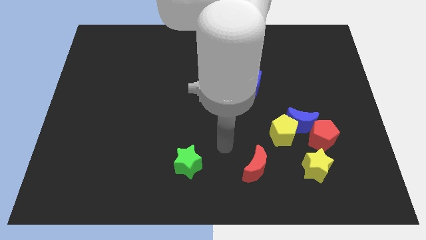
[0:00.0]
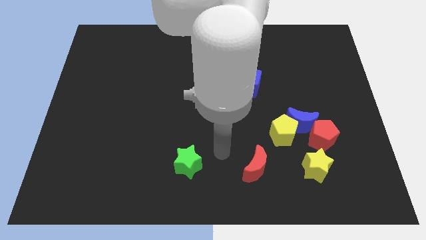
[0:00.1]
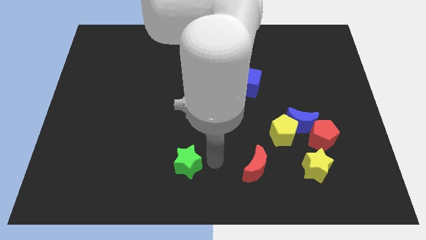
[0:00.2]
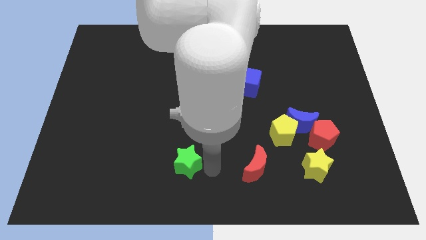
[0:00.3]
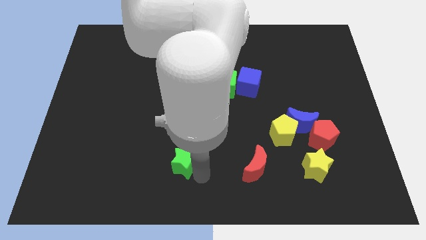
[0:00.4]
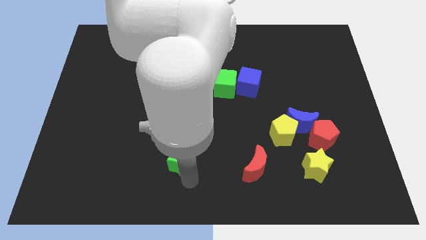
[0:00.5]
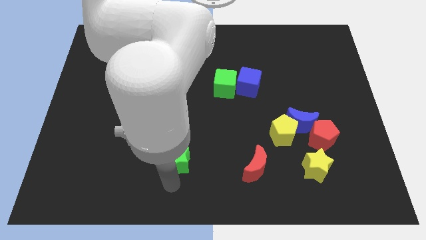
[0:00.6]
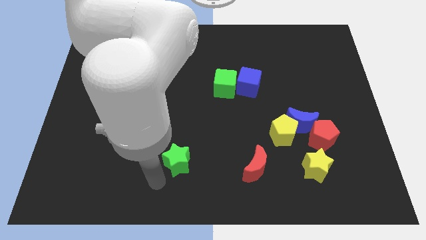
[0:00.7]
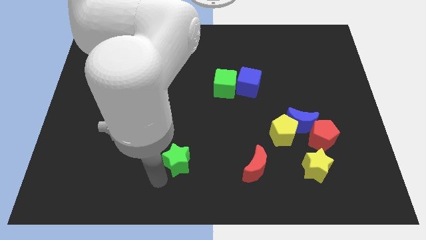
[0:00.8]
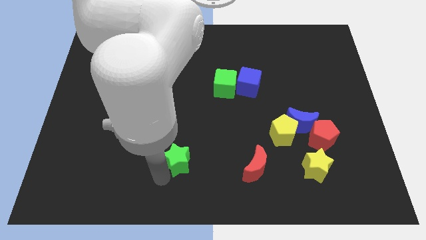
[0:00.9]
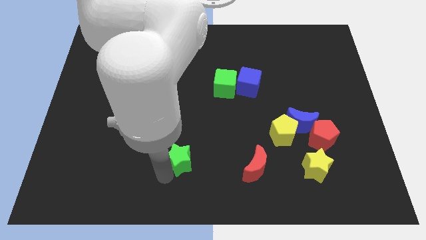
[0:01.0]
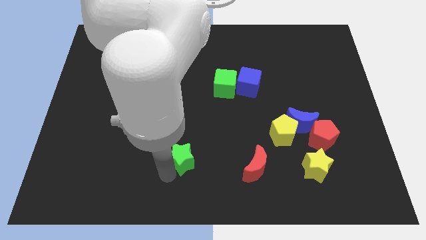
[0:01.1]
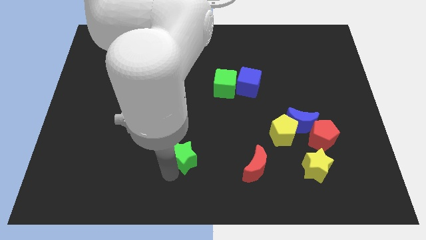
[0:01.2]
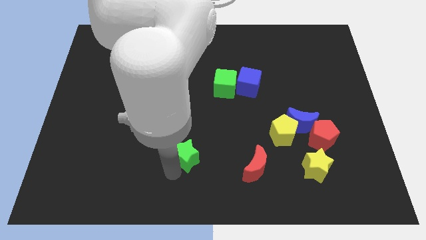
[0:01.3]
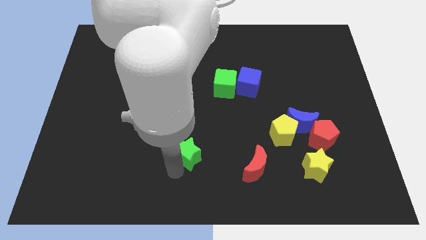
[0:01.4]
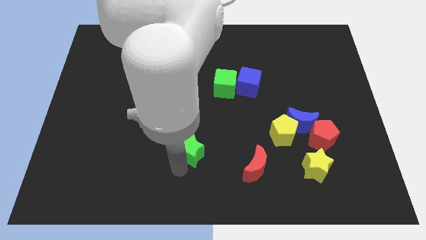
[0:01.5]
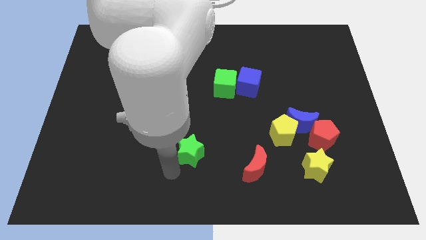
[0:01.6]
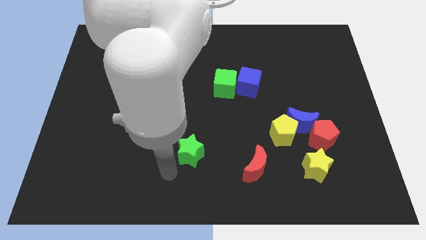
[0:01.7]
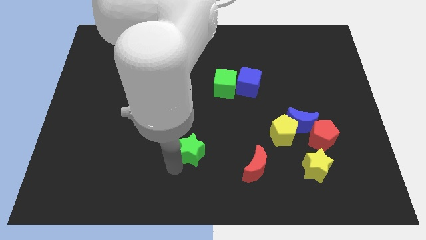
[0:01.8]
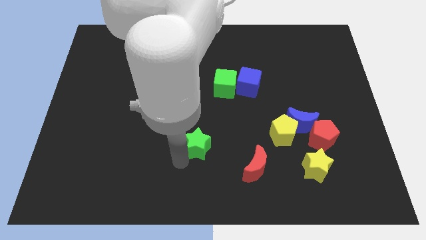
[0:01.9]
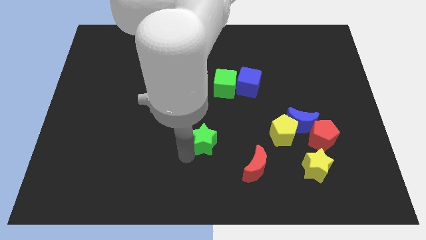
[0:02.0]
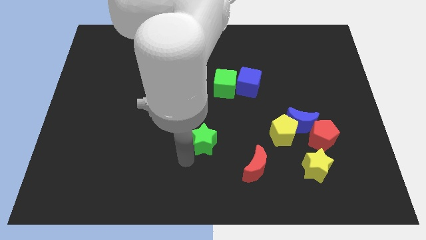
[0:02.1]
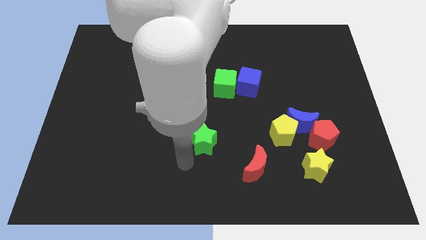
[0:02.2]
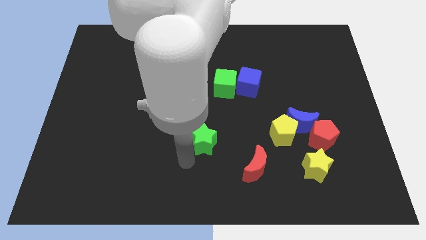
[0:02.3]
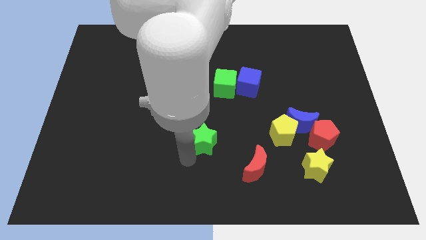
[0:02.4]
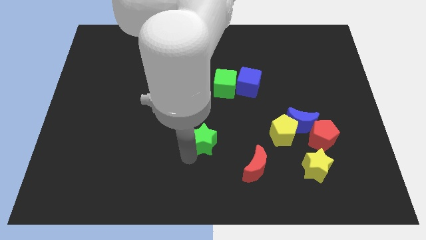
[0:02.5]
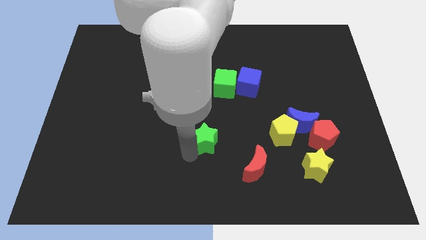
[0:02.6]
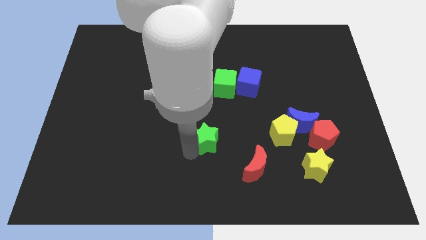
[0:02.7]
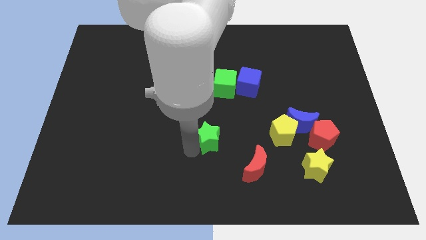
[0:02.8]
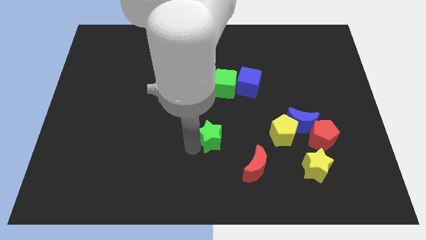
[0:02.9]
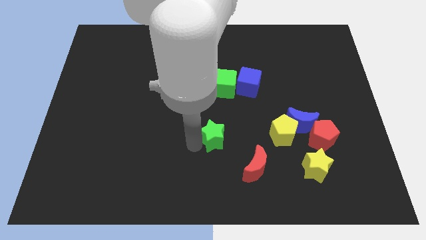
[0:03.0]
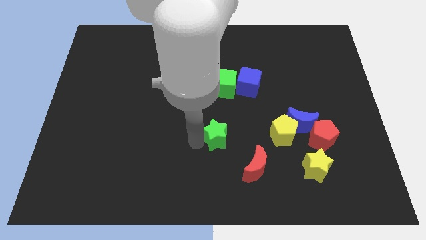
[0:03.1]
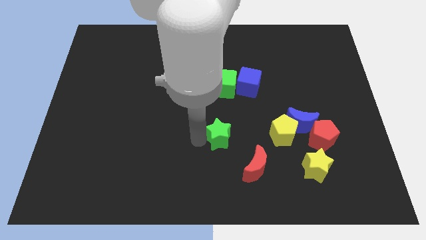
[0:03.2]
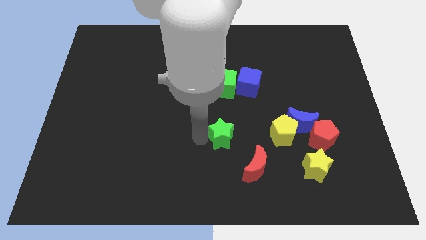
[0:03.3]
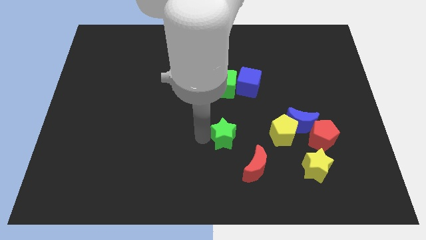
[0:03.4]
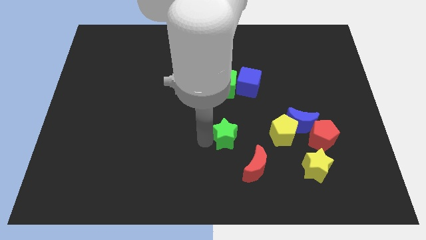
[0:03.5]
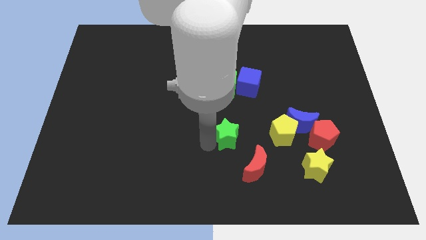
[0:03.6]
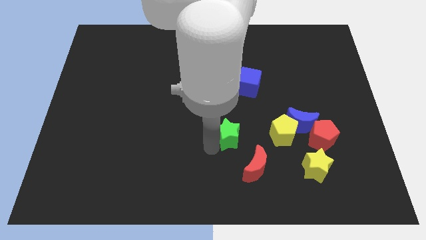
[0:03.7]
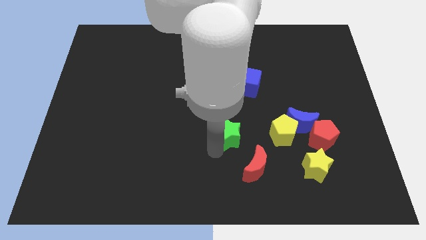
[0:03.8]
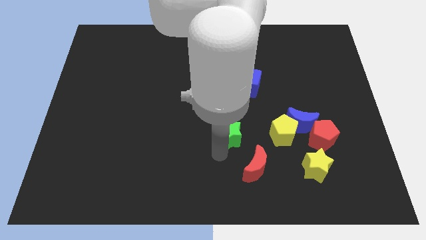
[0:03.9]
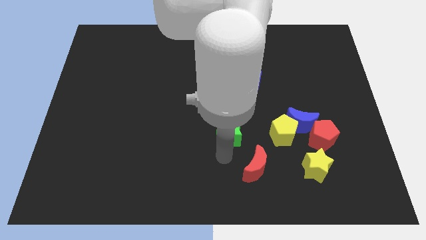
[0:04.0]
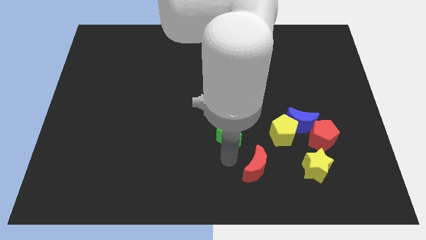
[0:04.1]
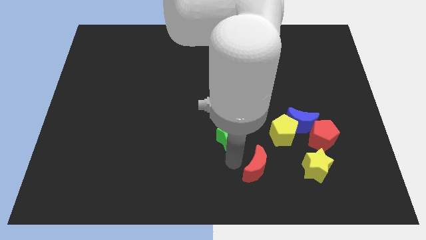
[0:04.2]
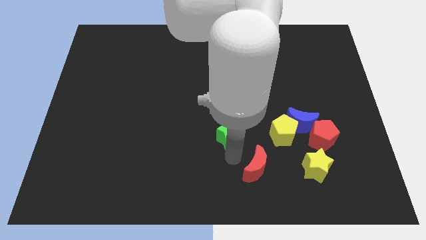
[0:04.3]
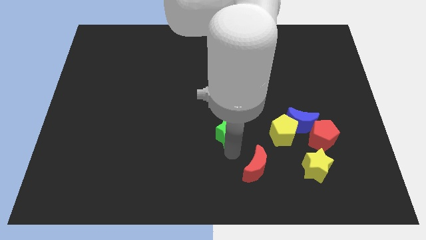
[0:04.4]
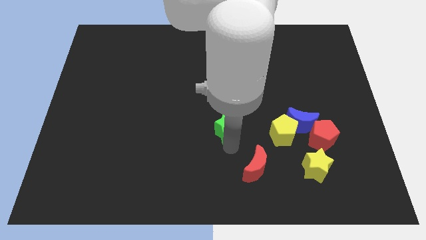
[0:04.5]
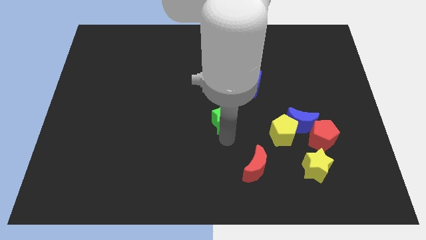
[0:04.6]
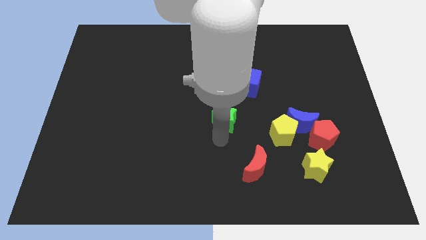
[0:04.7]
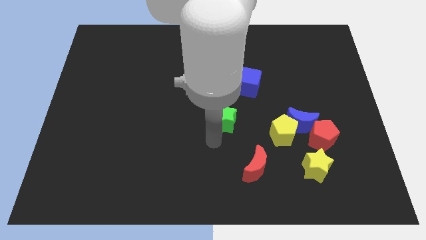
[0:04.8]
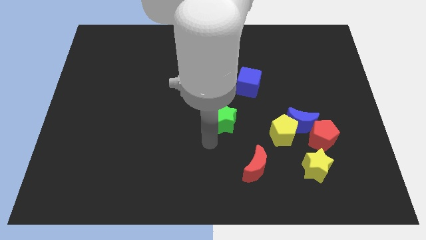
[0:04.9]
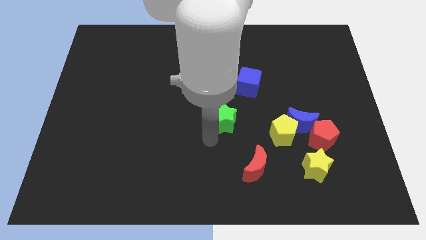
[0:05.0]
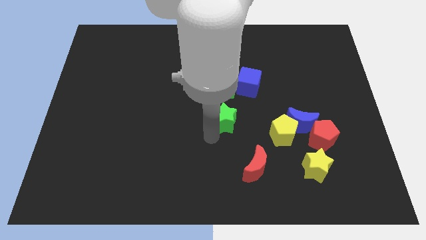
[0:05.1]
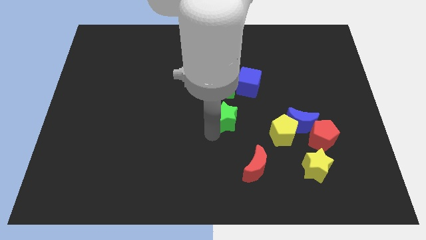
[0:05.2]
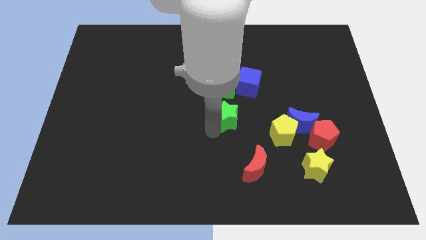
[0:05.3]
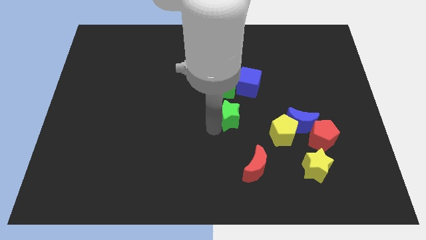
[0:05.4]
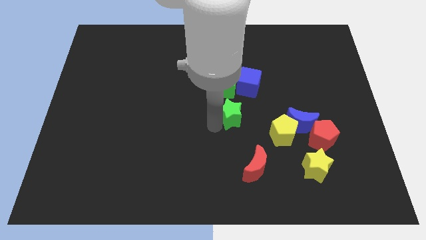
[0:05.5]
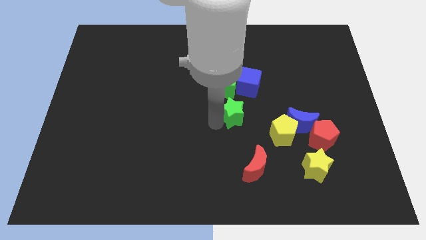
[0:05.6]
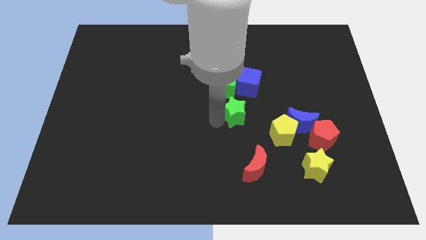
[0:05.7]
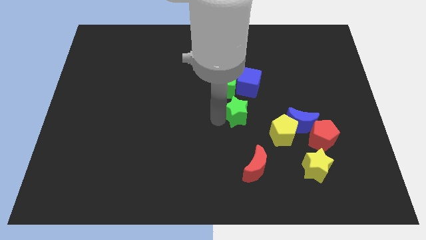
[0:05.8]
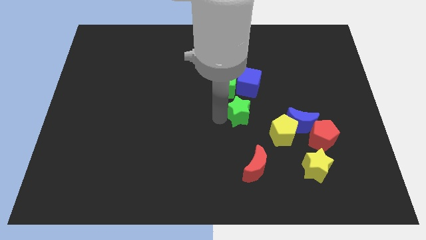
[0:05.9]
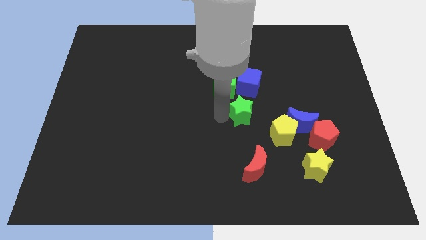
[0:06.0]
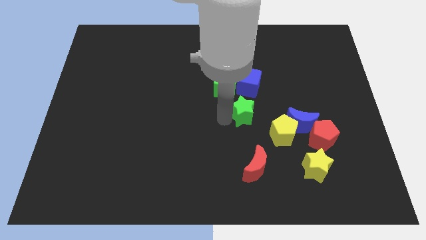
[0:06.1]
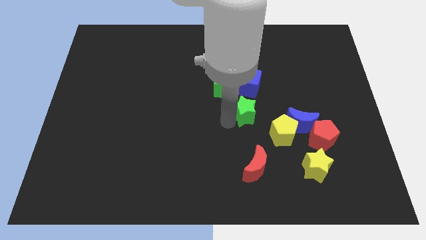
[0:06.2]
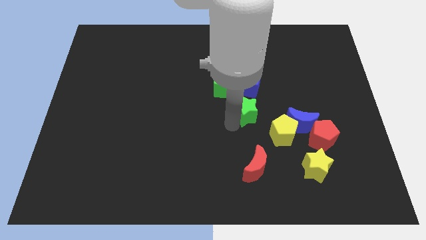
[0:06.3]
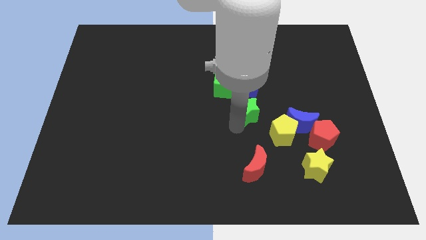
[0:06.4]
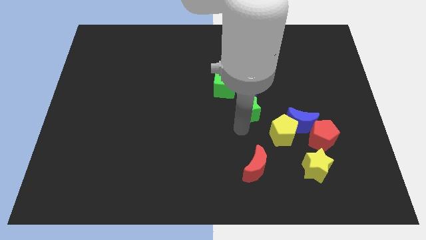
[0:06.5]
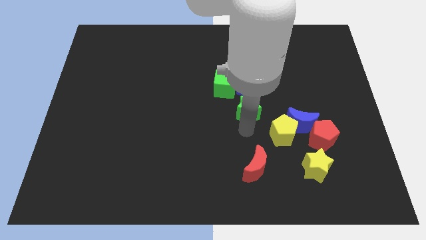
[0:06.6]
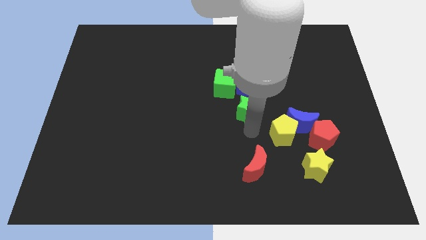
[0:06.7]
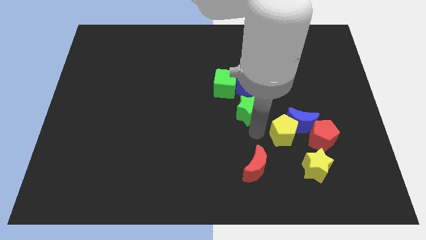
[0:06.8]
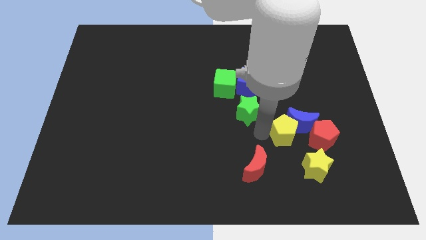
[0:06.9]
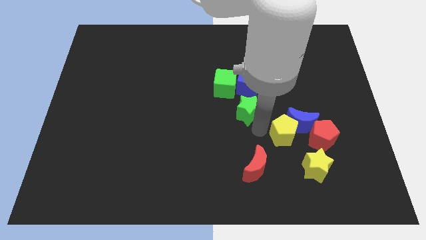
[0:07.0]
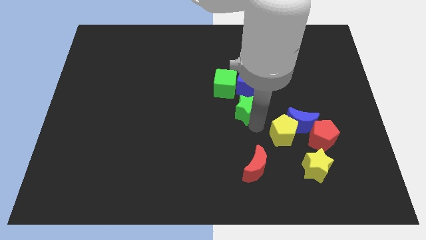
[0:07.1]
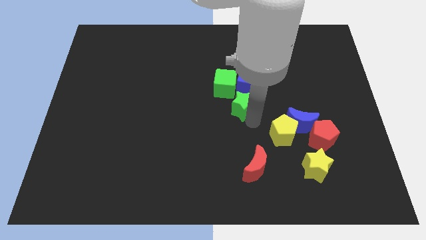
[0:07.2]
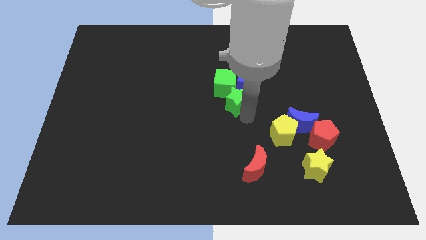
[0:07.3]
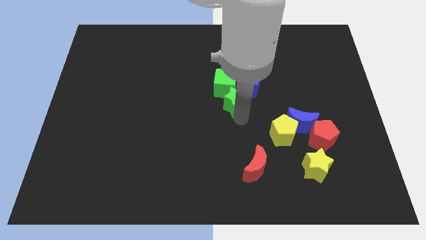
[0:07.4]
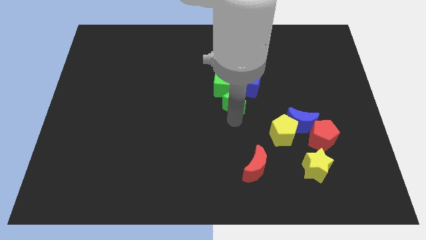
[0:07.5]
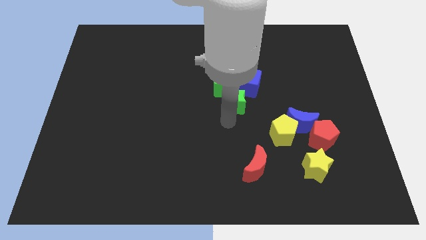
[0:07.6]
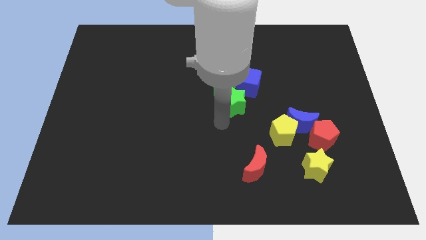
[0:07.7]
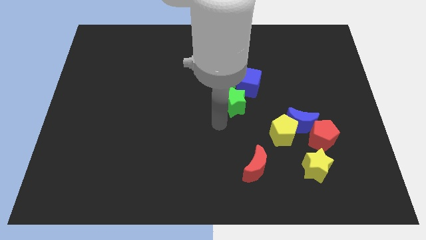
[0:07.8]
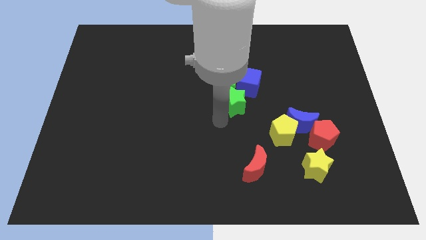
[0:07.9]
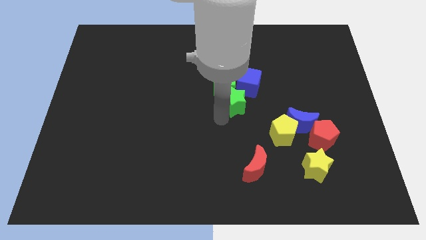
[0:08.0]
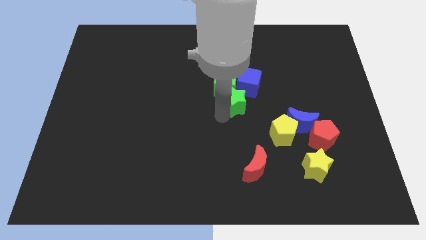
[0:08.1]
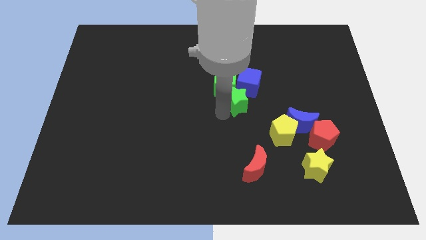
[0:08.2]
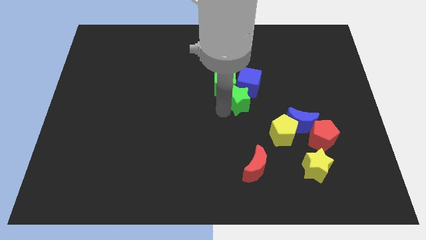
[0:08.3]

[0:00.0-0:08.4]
push the green star next to the blue cube
